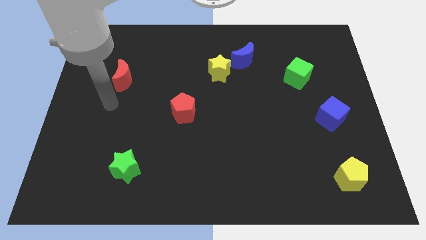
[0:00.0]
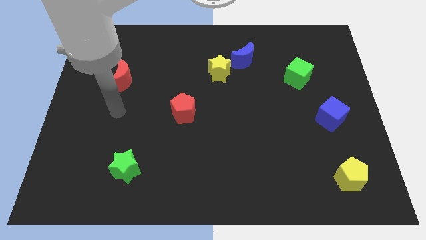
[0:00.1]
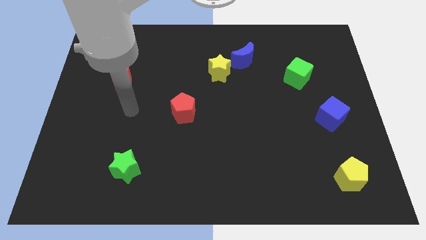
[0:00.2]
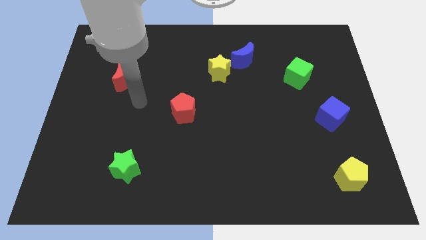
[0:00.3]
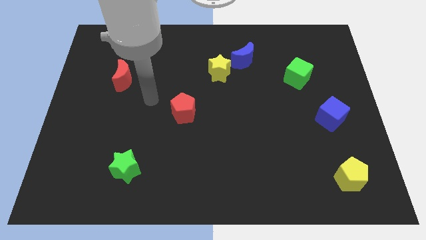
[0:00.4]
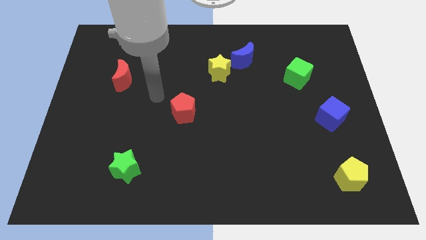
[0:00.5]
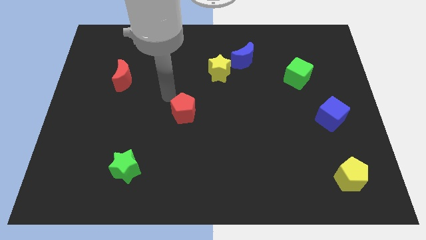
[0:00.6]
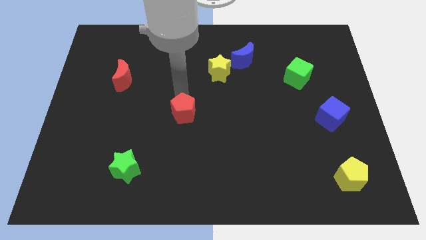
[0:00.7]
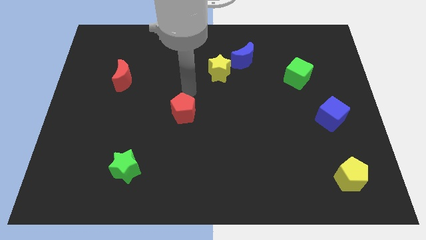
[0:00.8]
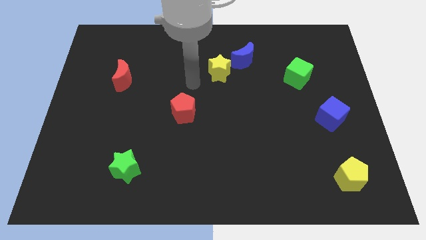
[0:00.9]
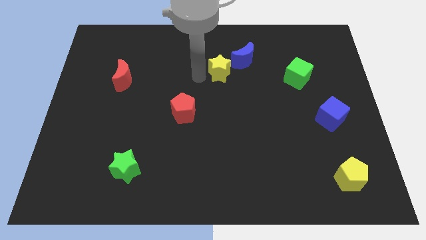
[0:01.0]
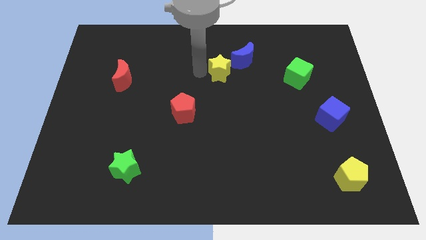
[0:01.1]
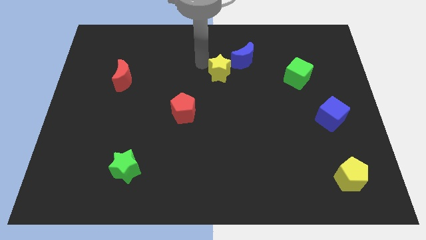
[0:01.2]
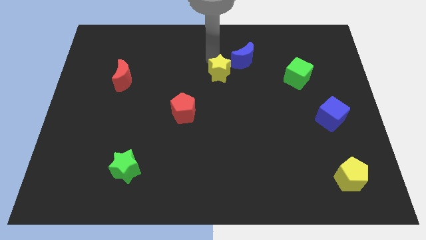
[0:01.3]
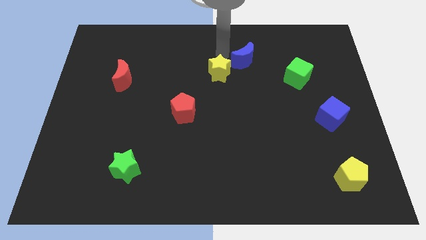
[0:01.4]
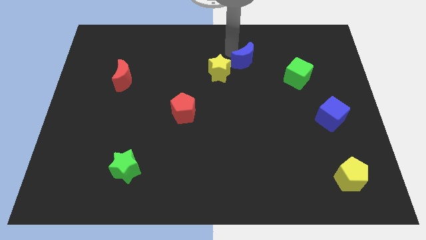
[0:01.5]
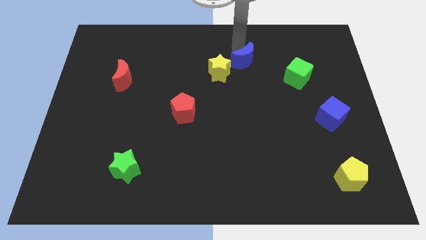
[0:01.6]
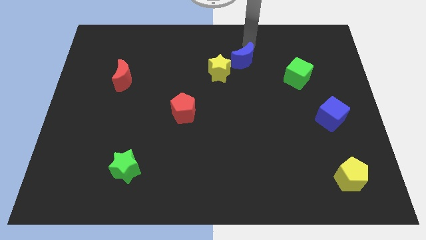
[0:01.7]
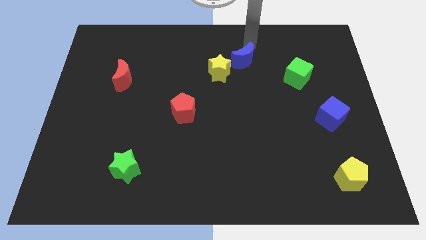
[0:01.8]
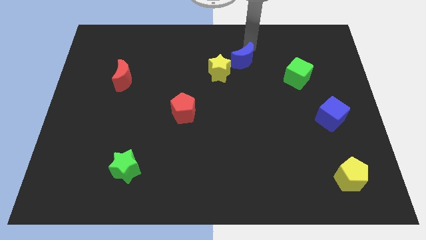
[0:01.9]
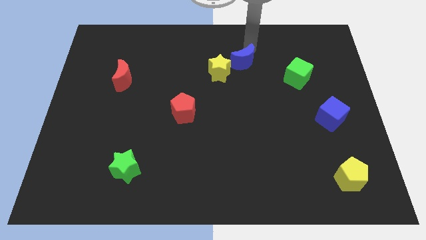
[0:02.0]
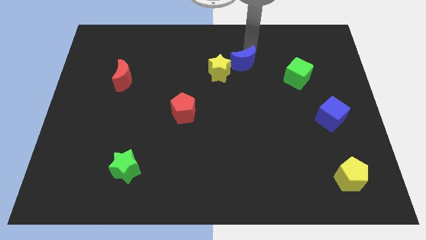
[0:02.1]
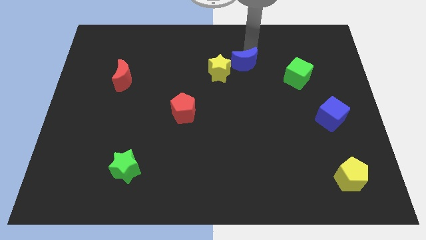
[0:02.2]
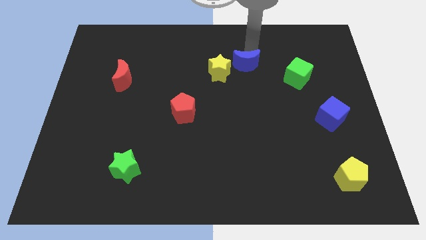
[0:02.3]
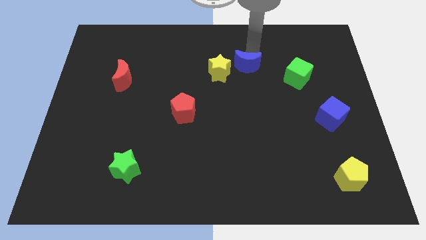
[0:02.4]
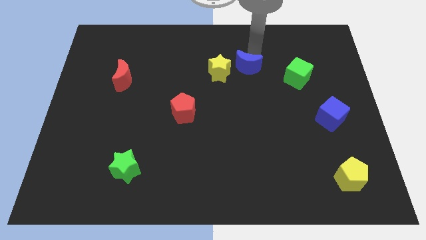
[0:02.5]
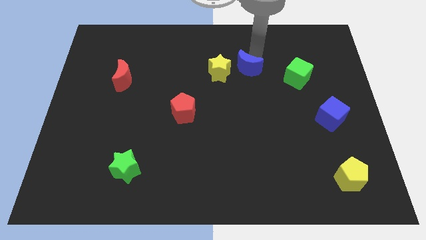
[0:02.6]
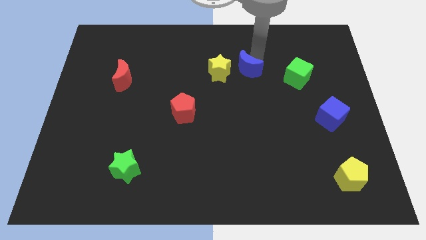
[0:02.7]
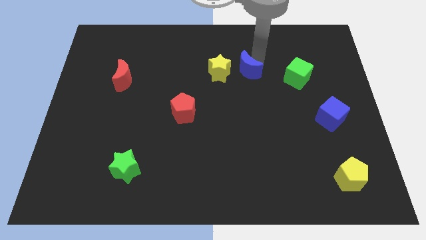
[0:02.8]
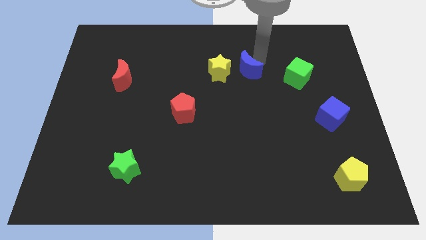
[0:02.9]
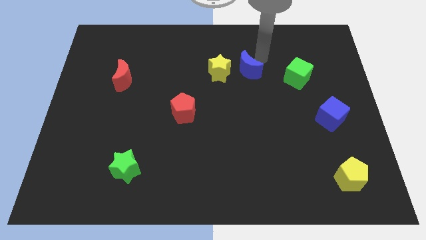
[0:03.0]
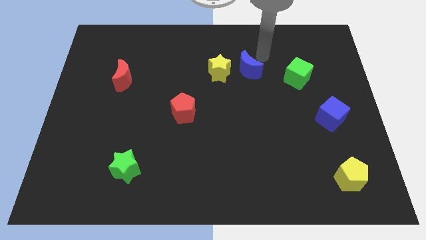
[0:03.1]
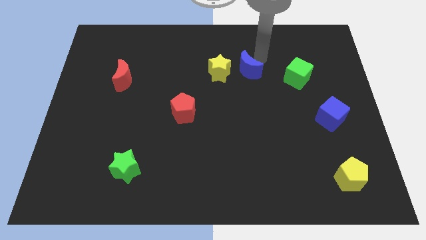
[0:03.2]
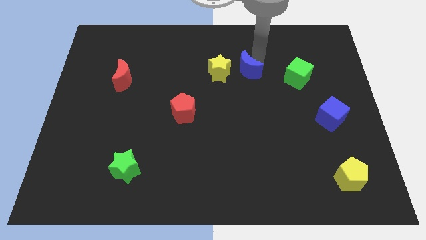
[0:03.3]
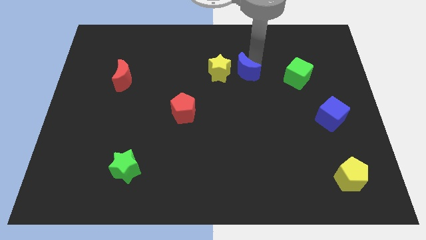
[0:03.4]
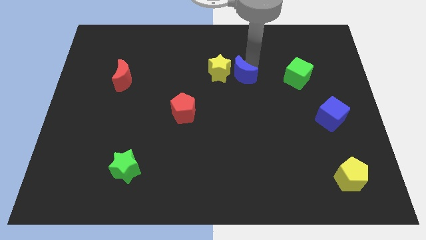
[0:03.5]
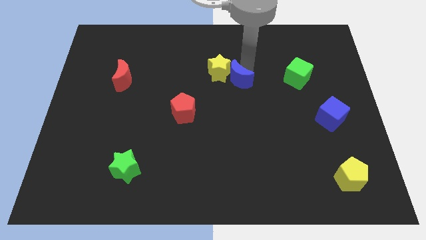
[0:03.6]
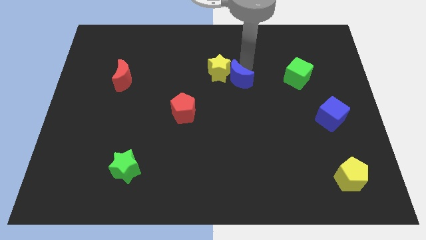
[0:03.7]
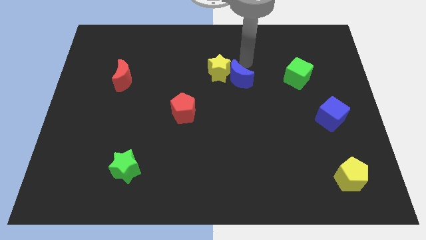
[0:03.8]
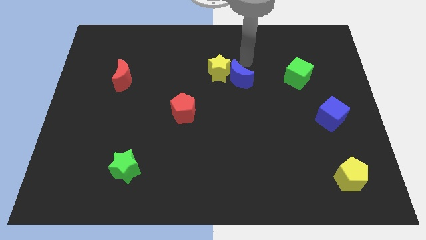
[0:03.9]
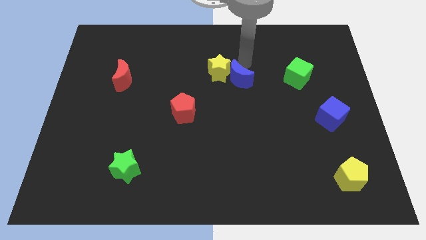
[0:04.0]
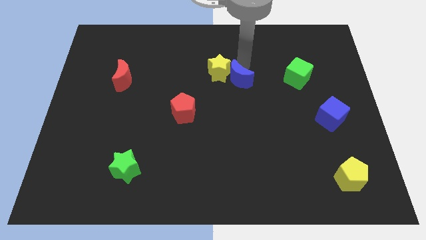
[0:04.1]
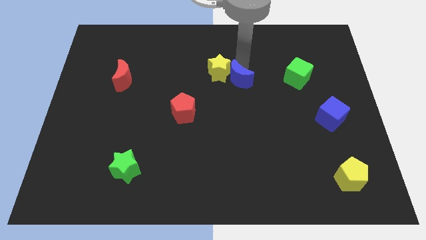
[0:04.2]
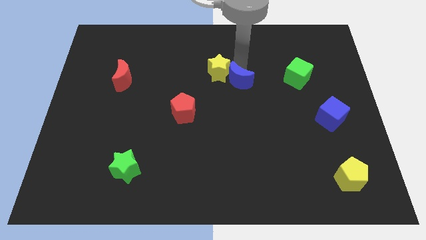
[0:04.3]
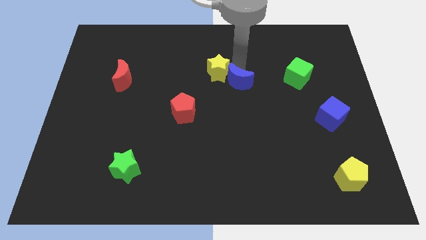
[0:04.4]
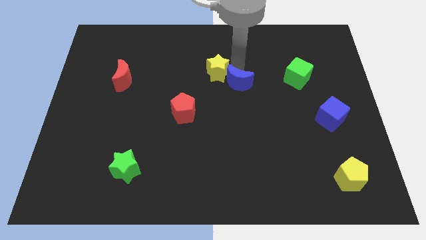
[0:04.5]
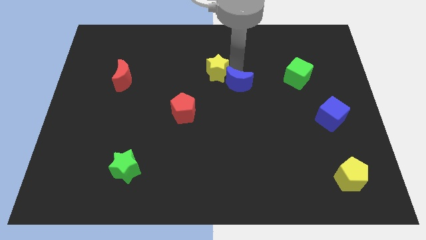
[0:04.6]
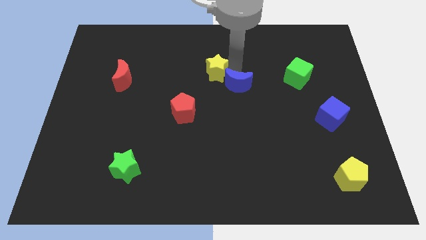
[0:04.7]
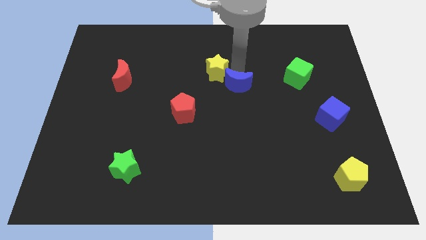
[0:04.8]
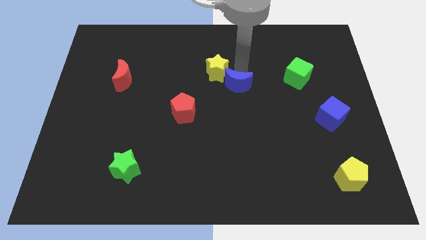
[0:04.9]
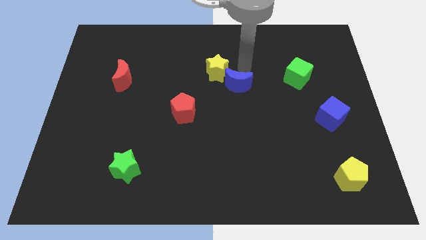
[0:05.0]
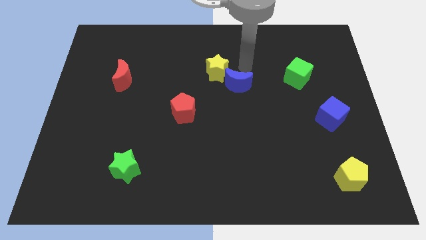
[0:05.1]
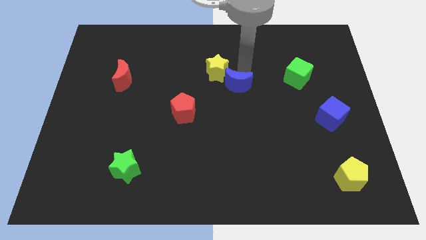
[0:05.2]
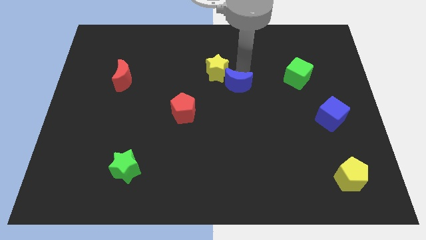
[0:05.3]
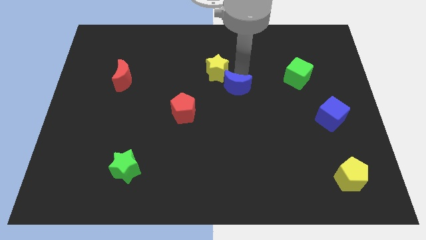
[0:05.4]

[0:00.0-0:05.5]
put the blue moon to the bottom of the yellow star

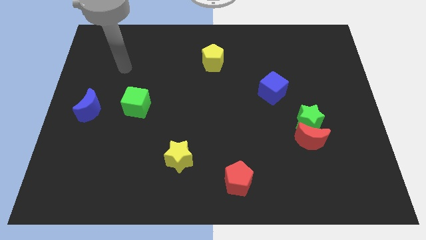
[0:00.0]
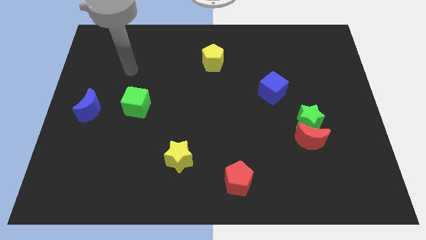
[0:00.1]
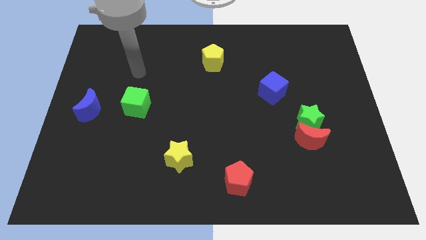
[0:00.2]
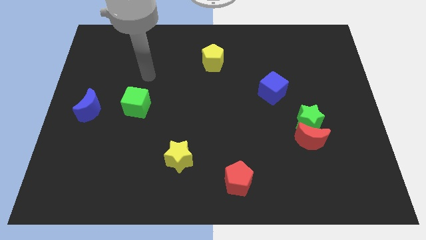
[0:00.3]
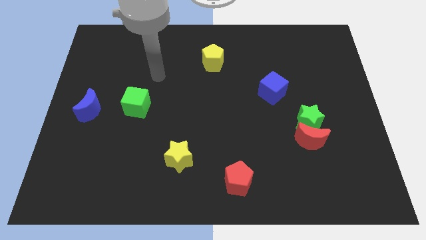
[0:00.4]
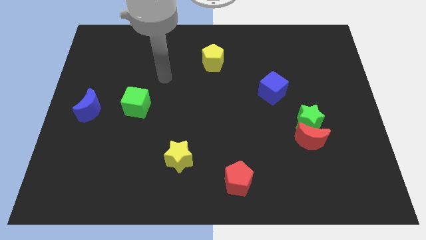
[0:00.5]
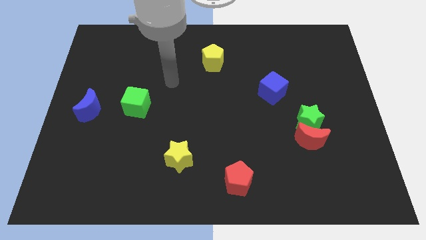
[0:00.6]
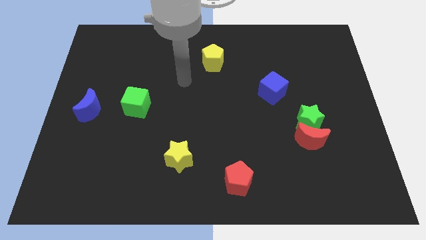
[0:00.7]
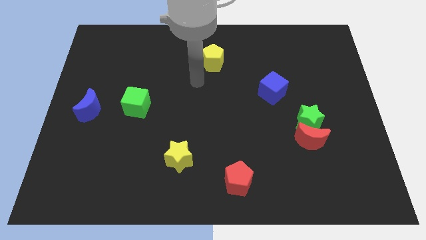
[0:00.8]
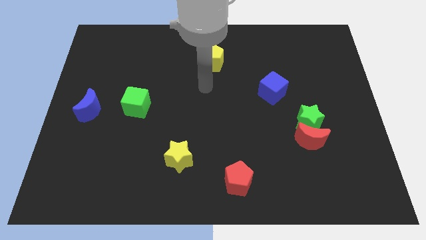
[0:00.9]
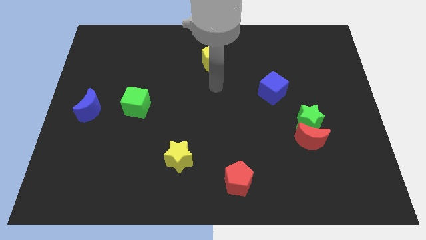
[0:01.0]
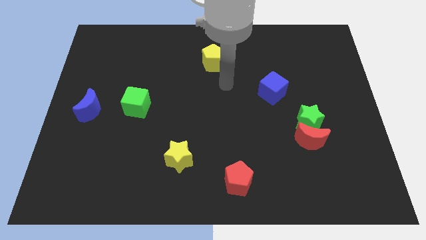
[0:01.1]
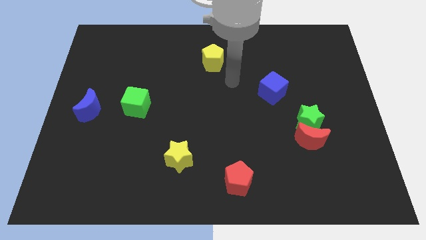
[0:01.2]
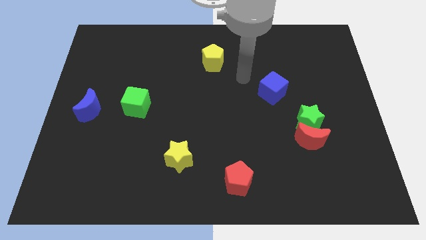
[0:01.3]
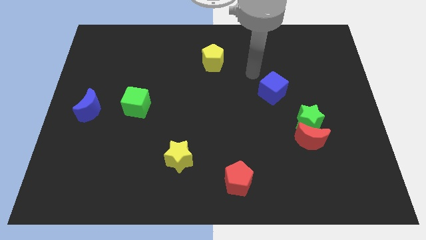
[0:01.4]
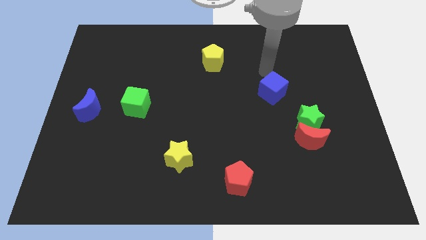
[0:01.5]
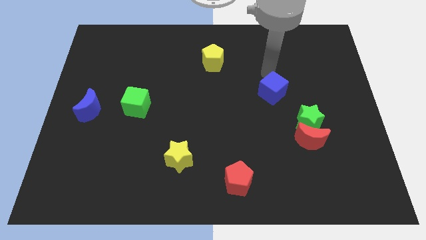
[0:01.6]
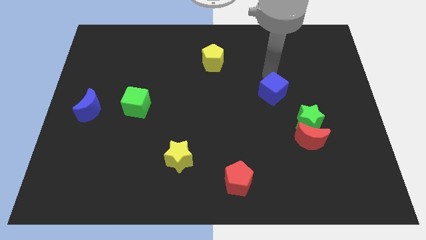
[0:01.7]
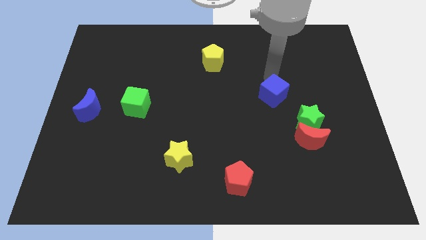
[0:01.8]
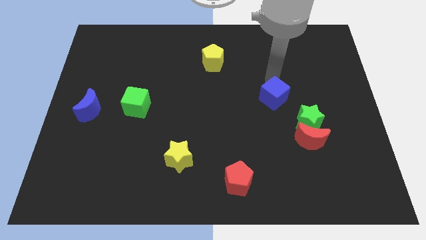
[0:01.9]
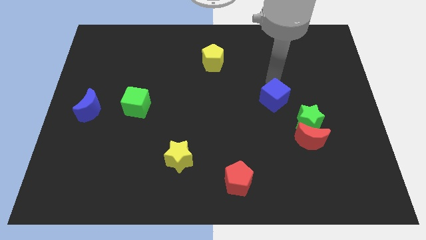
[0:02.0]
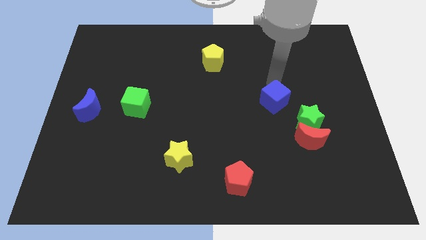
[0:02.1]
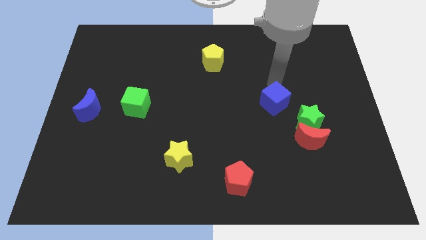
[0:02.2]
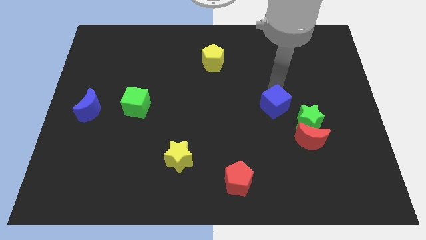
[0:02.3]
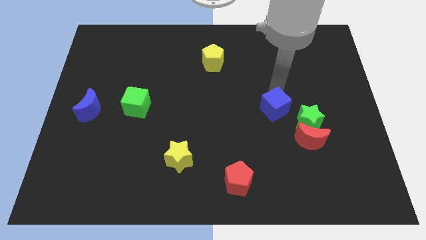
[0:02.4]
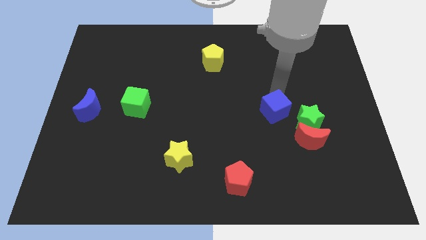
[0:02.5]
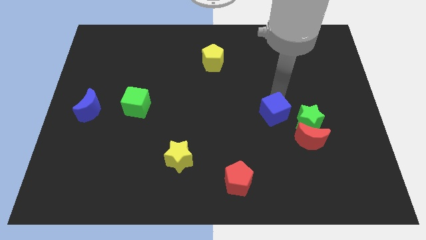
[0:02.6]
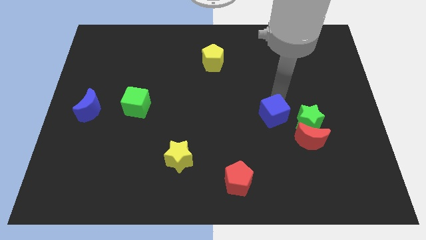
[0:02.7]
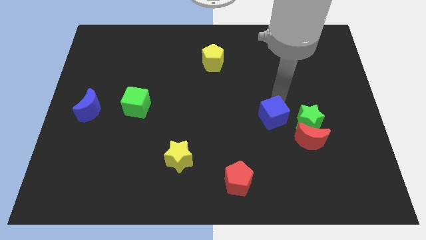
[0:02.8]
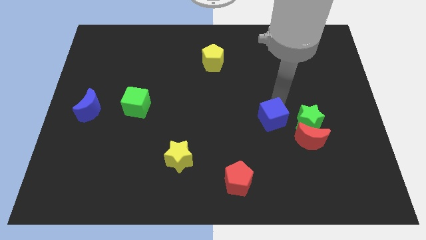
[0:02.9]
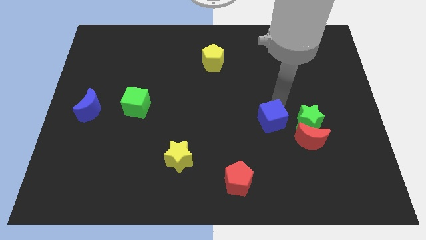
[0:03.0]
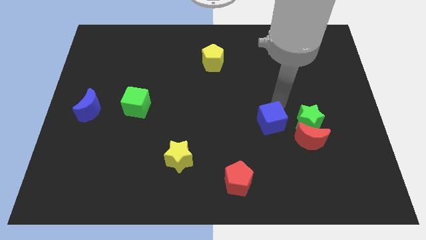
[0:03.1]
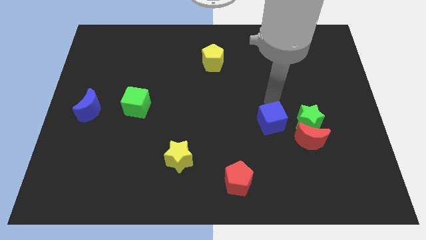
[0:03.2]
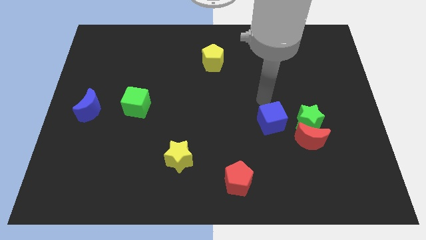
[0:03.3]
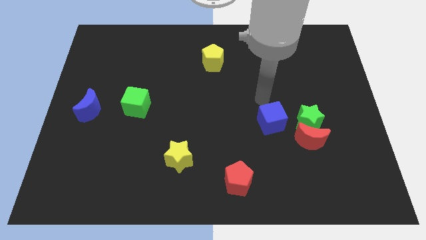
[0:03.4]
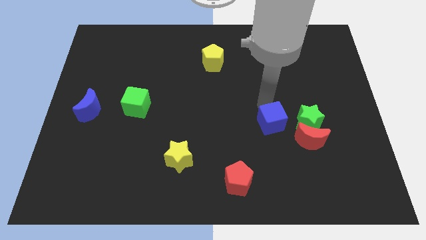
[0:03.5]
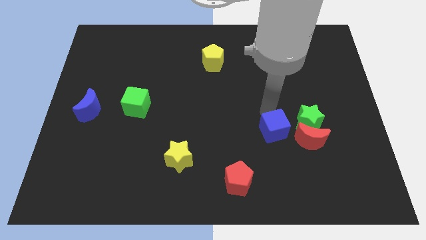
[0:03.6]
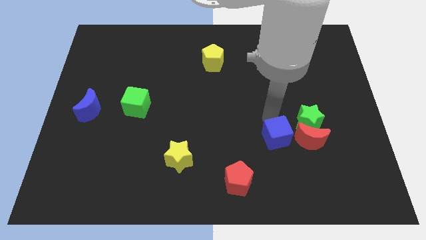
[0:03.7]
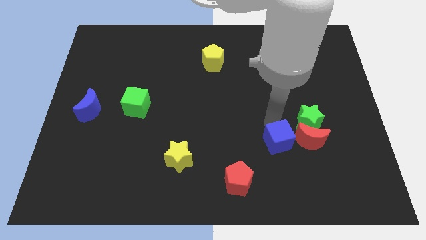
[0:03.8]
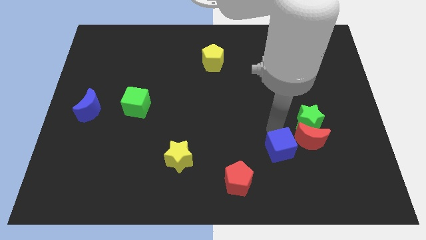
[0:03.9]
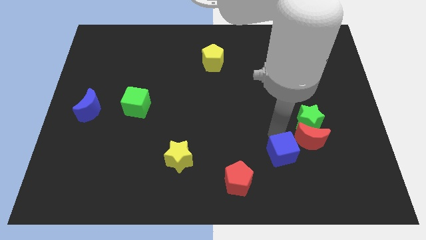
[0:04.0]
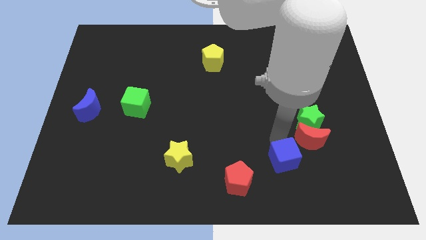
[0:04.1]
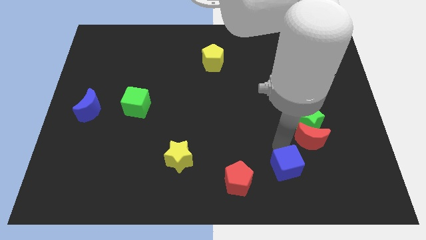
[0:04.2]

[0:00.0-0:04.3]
slide the blue cube to the right of the red pentagon
